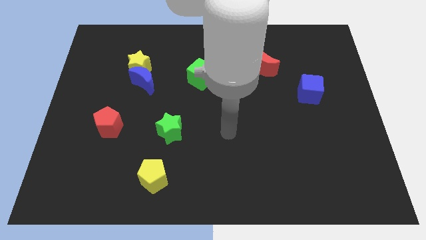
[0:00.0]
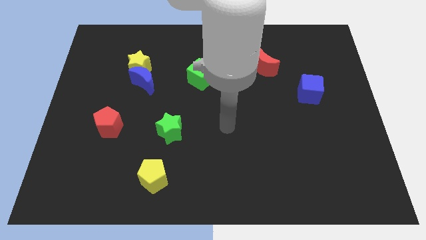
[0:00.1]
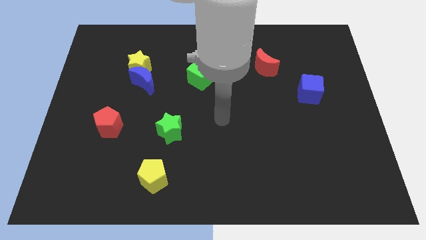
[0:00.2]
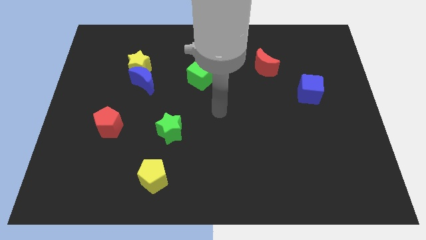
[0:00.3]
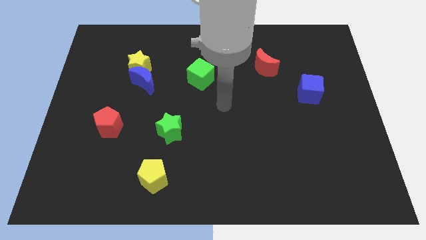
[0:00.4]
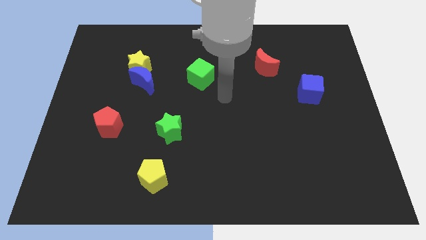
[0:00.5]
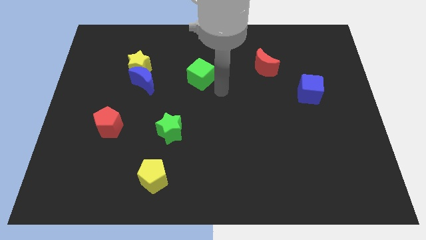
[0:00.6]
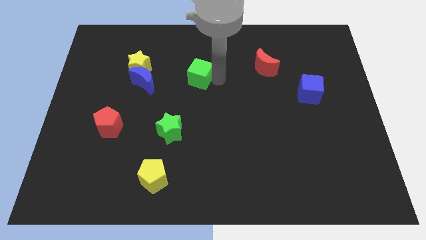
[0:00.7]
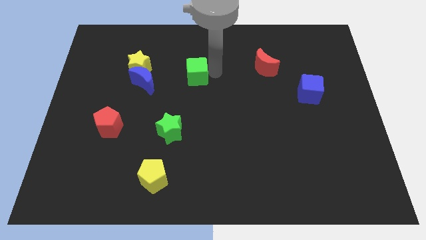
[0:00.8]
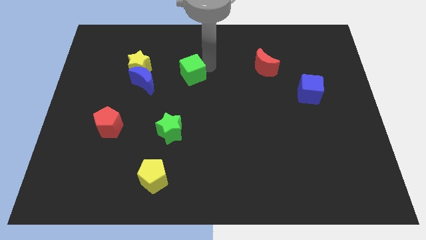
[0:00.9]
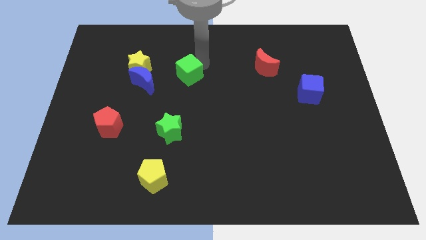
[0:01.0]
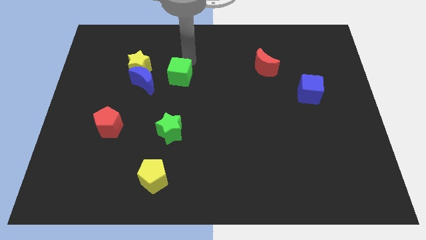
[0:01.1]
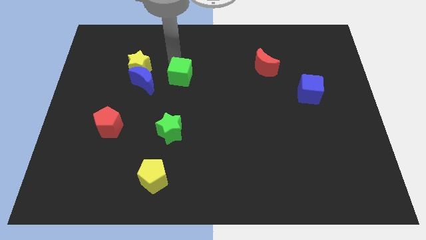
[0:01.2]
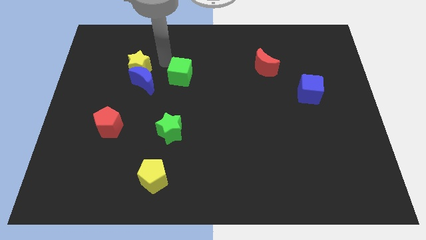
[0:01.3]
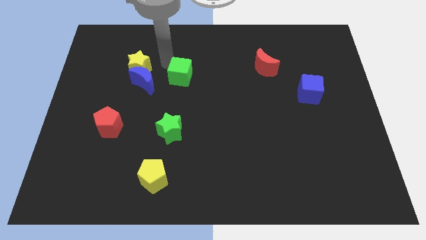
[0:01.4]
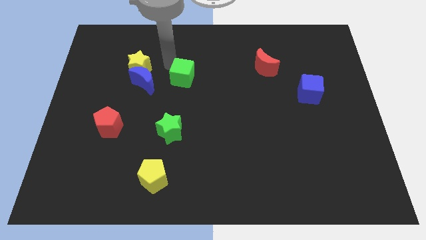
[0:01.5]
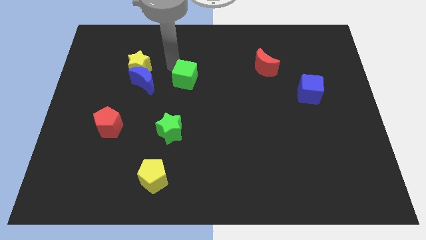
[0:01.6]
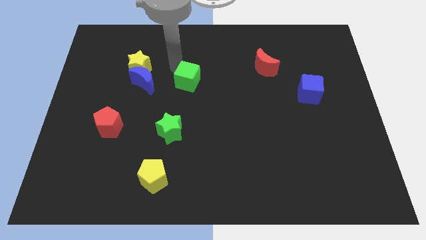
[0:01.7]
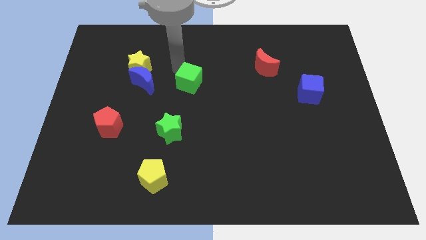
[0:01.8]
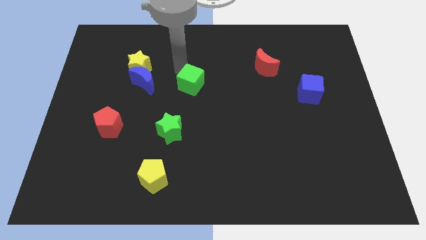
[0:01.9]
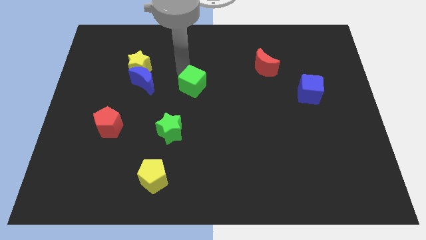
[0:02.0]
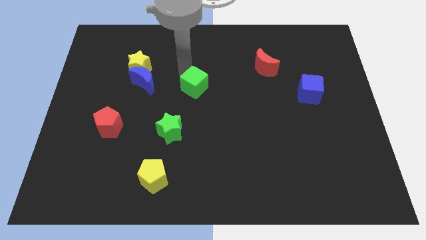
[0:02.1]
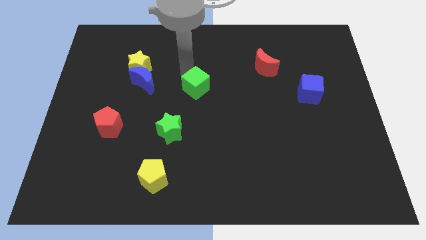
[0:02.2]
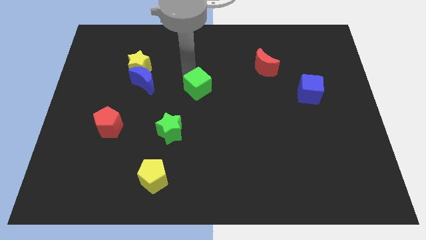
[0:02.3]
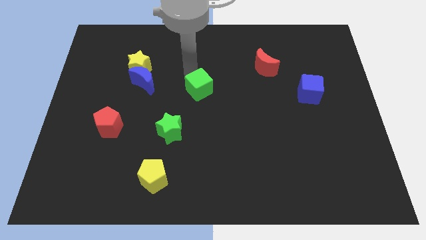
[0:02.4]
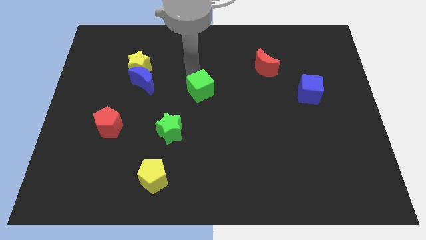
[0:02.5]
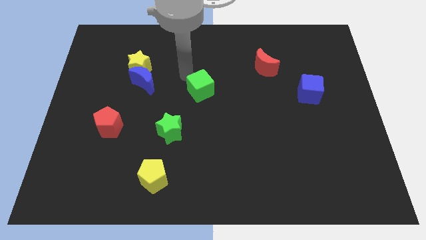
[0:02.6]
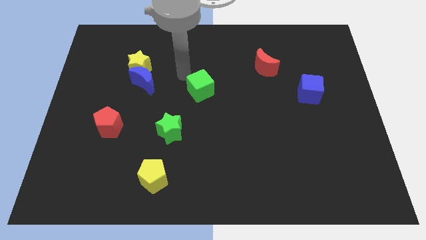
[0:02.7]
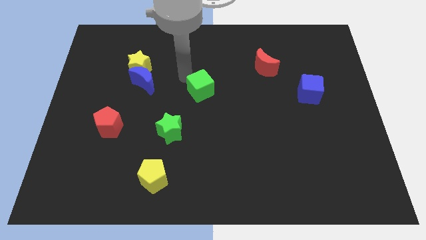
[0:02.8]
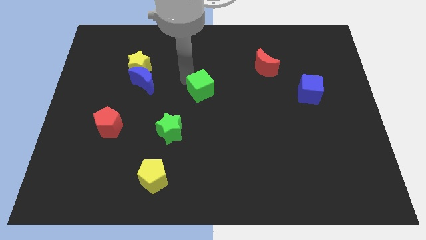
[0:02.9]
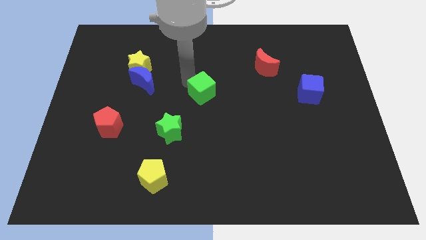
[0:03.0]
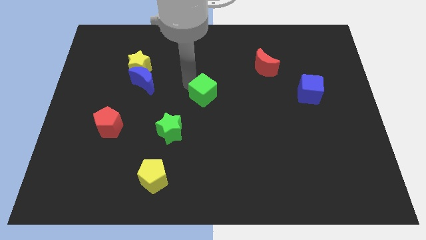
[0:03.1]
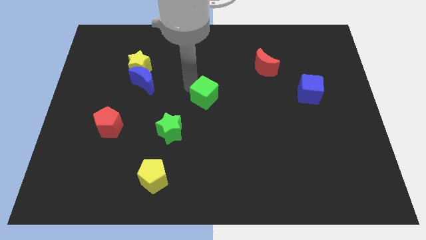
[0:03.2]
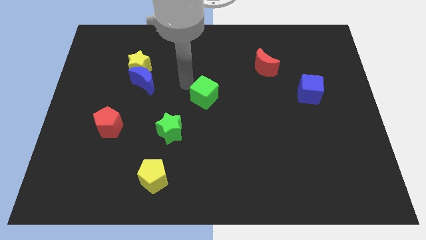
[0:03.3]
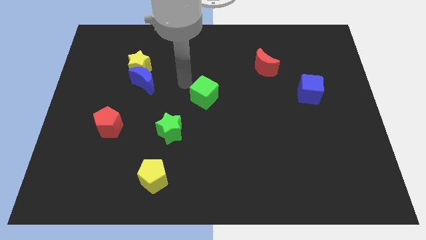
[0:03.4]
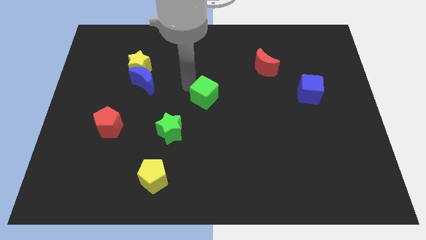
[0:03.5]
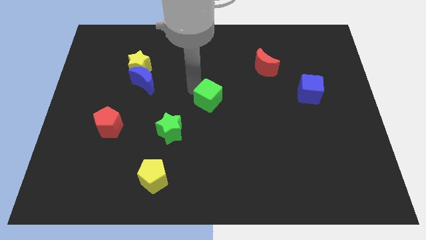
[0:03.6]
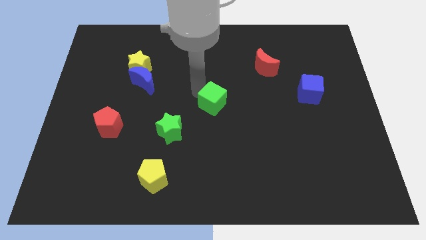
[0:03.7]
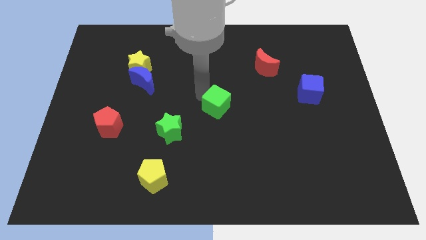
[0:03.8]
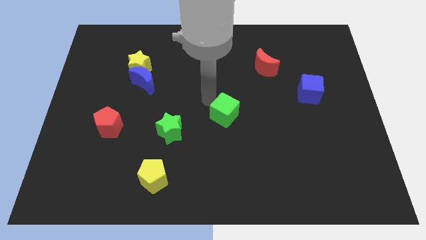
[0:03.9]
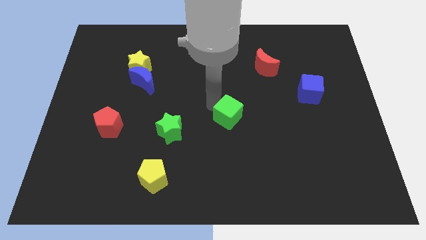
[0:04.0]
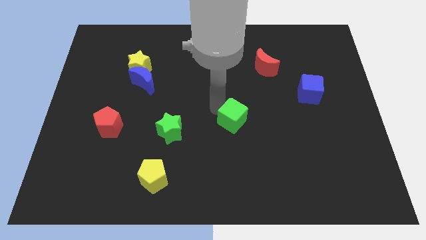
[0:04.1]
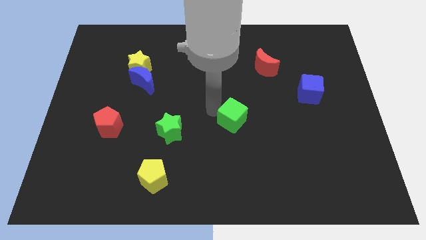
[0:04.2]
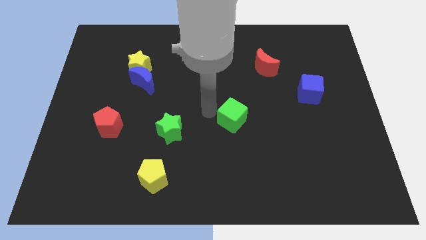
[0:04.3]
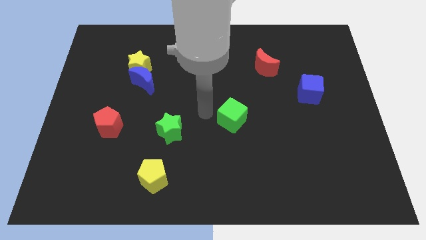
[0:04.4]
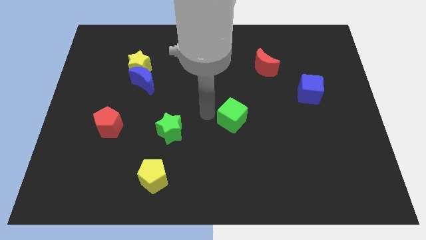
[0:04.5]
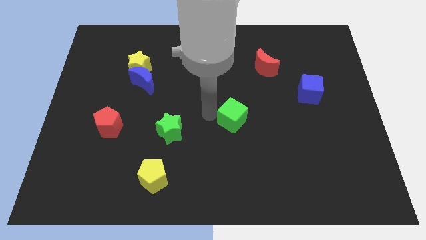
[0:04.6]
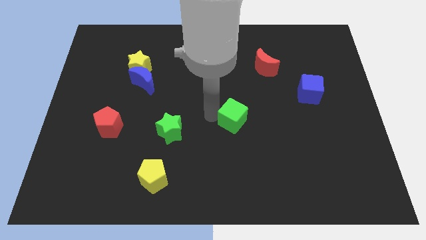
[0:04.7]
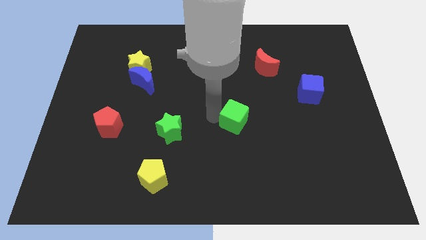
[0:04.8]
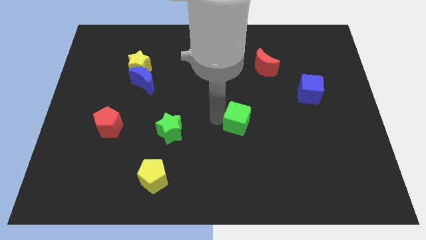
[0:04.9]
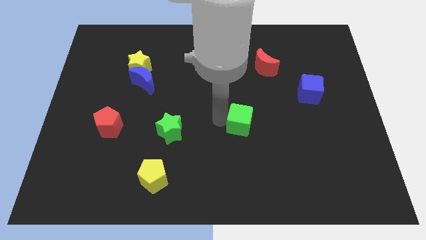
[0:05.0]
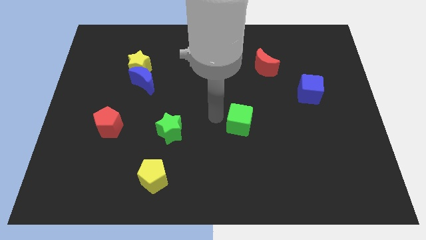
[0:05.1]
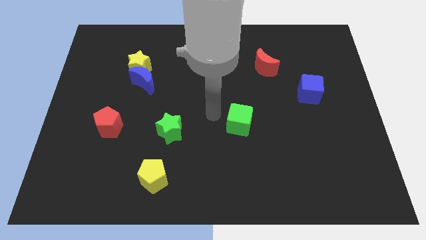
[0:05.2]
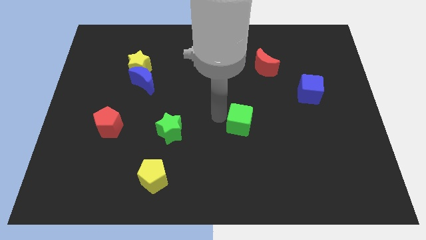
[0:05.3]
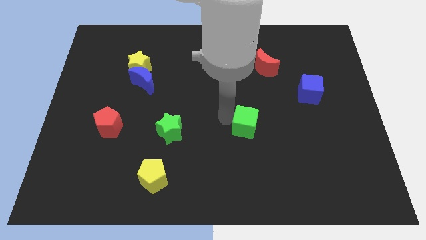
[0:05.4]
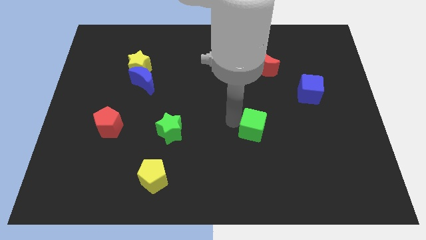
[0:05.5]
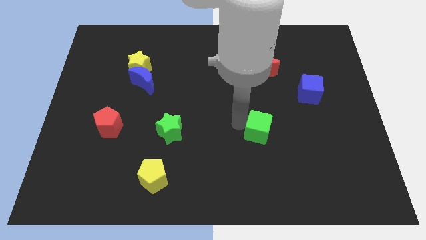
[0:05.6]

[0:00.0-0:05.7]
slide the green cube down and right diagonally

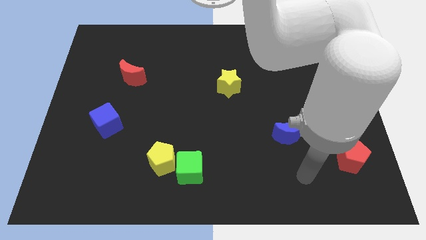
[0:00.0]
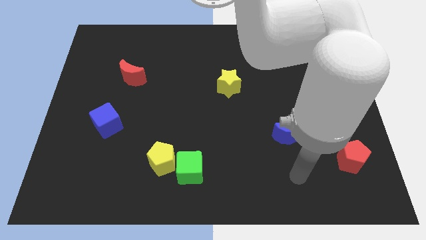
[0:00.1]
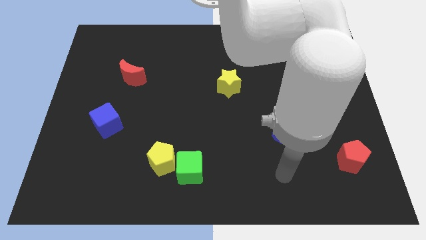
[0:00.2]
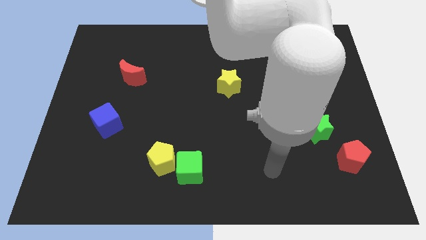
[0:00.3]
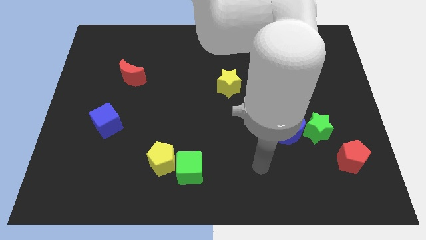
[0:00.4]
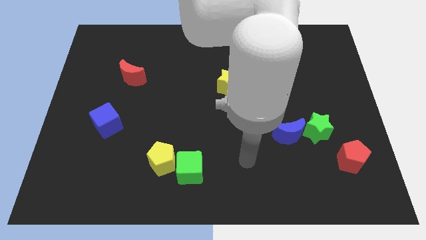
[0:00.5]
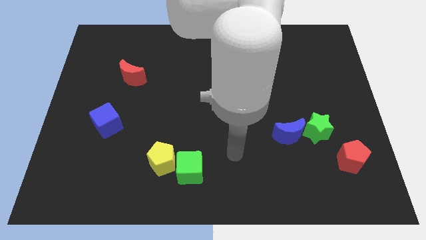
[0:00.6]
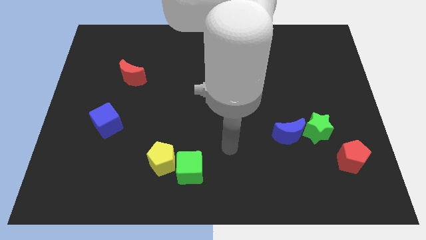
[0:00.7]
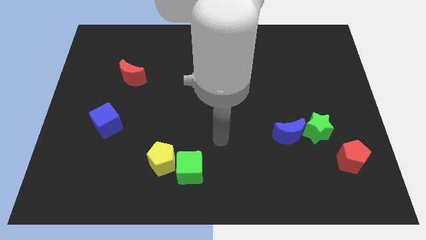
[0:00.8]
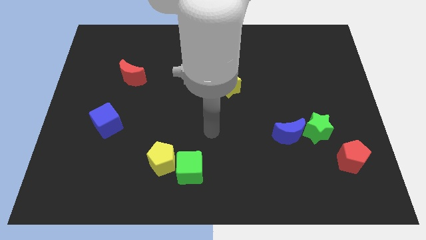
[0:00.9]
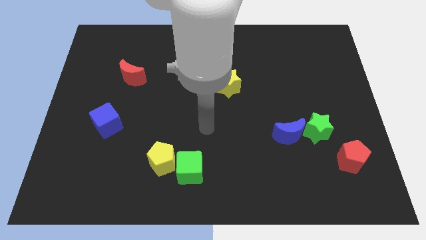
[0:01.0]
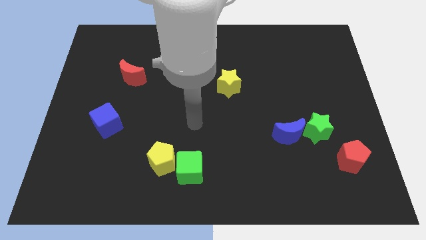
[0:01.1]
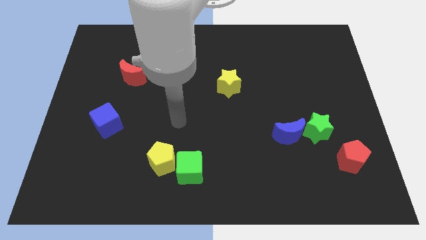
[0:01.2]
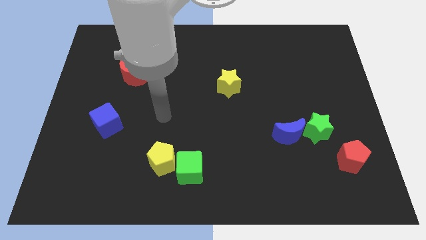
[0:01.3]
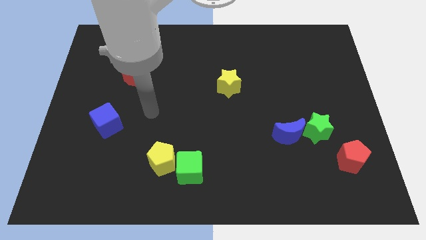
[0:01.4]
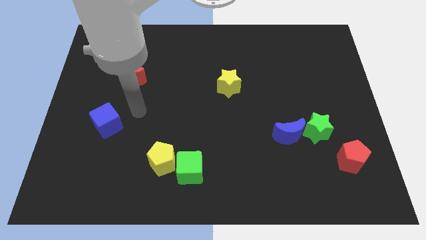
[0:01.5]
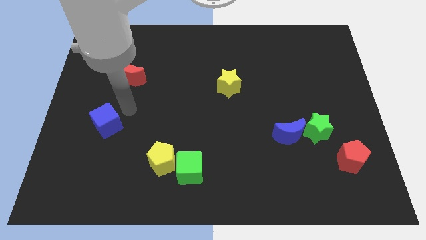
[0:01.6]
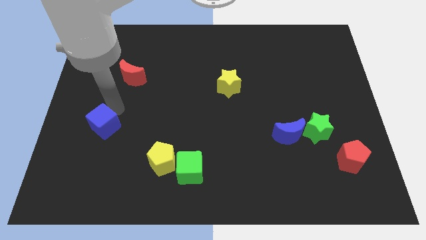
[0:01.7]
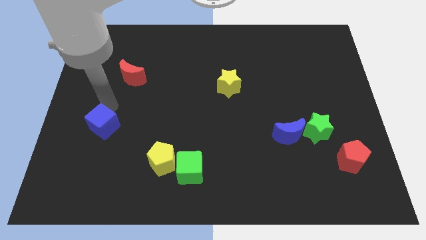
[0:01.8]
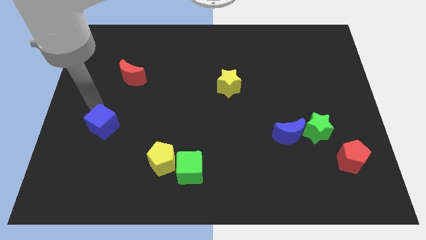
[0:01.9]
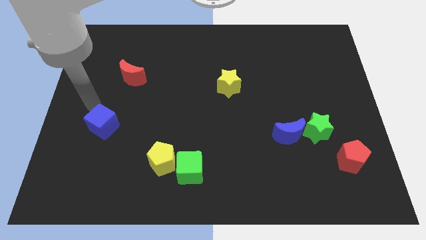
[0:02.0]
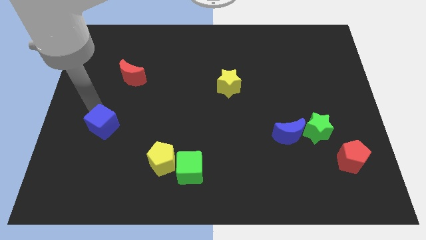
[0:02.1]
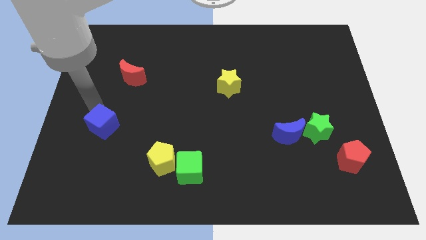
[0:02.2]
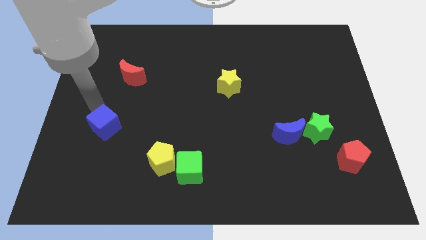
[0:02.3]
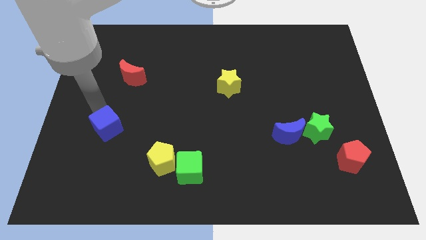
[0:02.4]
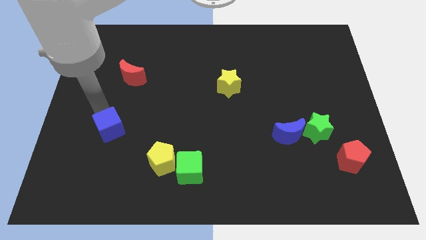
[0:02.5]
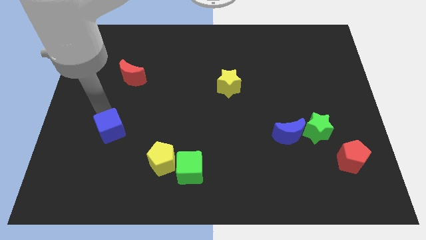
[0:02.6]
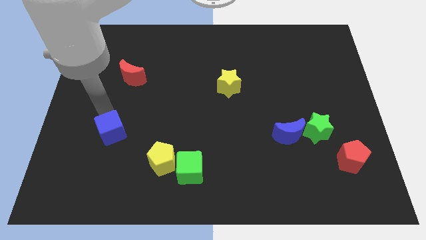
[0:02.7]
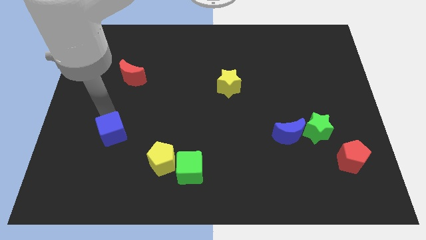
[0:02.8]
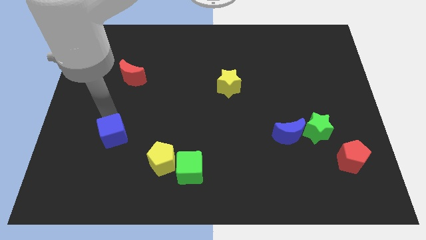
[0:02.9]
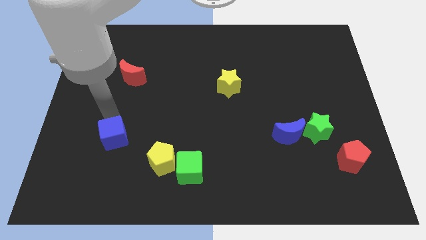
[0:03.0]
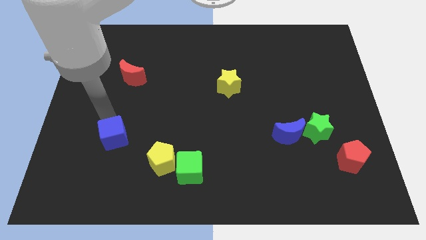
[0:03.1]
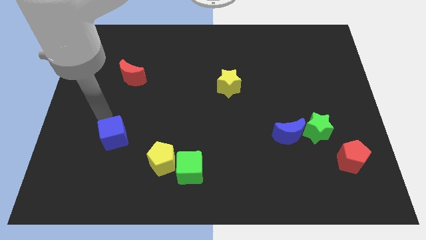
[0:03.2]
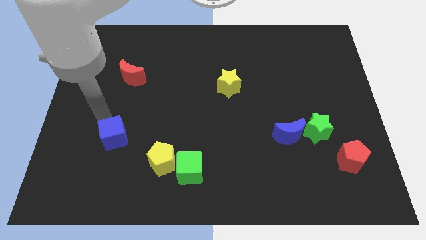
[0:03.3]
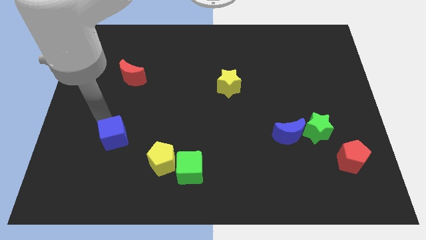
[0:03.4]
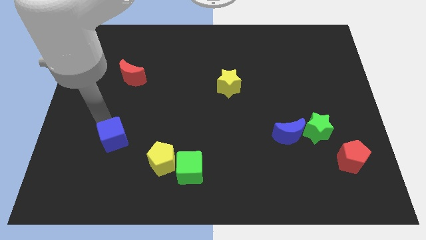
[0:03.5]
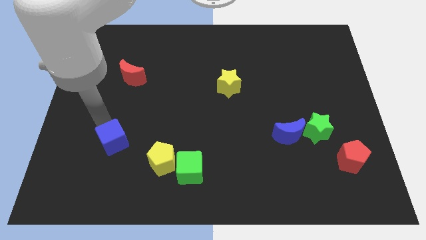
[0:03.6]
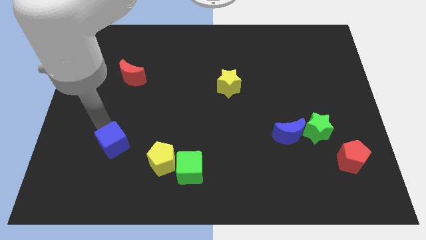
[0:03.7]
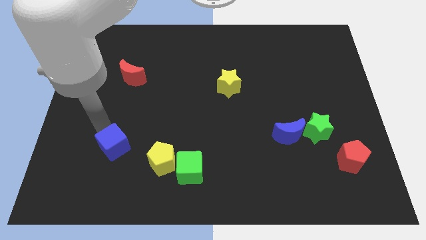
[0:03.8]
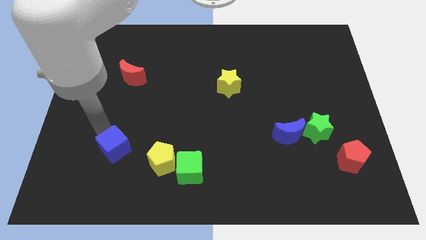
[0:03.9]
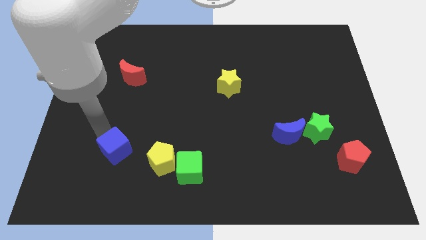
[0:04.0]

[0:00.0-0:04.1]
slightly move the blue cube down and to the right
